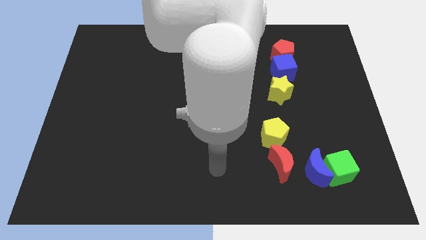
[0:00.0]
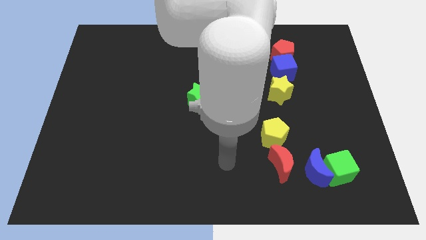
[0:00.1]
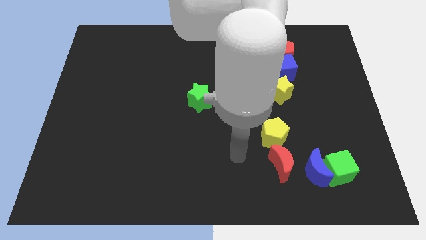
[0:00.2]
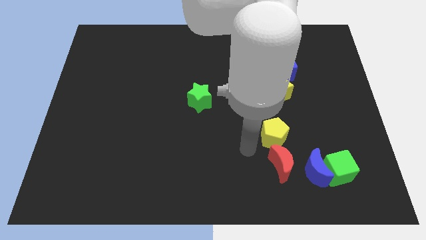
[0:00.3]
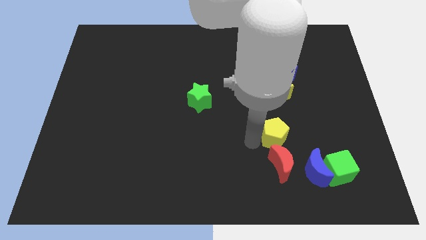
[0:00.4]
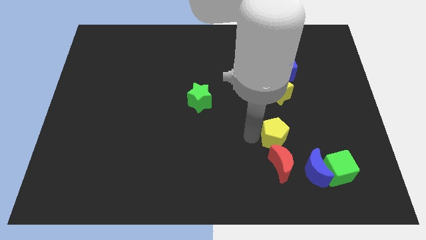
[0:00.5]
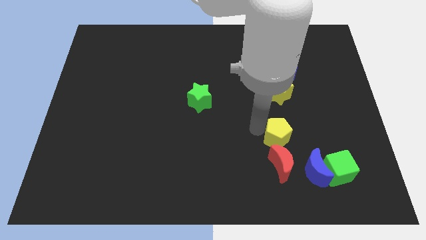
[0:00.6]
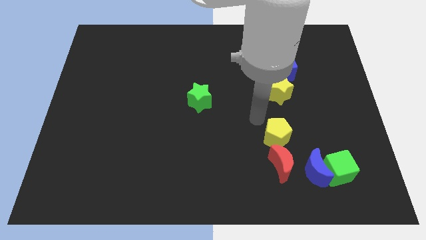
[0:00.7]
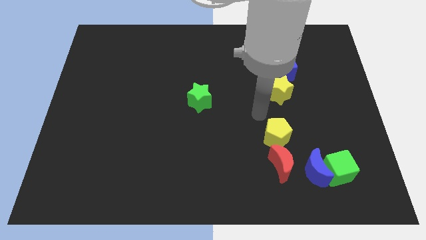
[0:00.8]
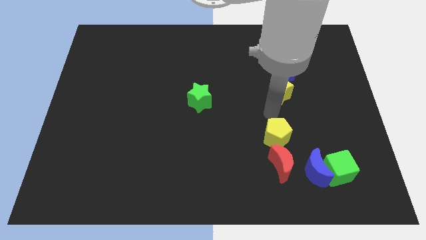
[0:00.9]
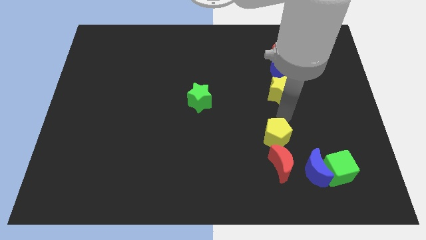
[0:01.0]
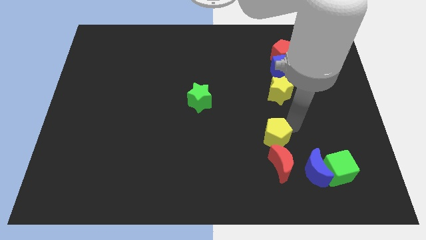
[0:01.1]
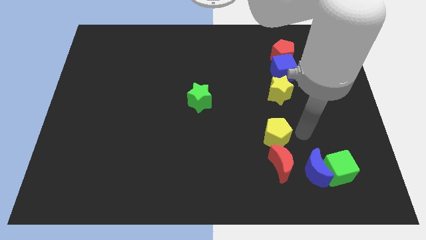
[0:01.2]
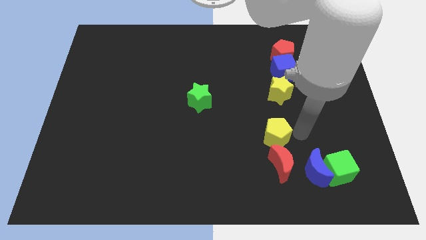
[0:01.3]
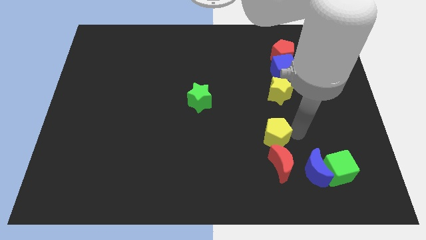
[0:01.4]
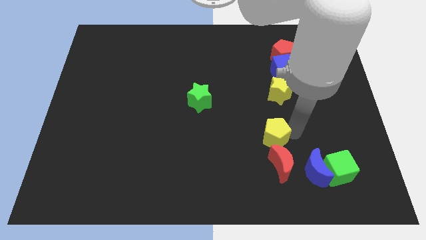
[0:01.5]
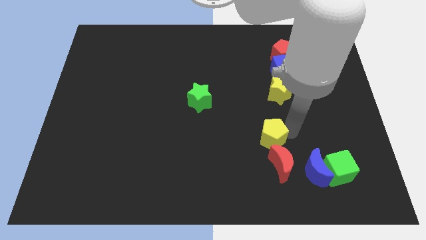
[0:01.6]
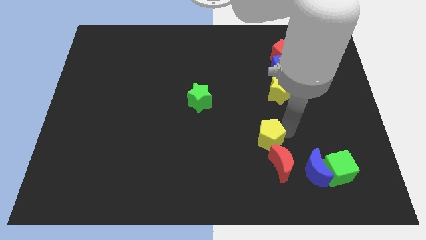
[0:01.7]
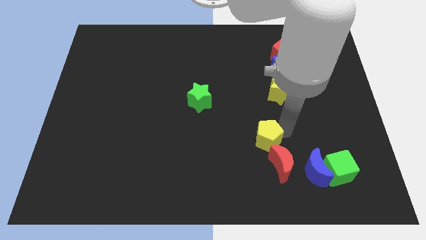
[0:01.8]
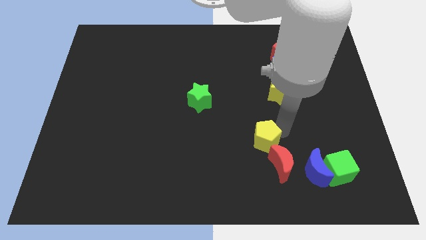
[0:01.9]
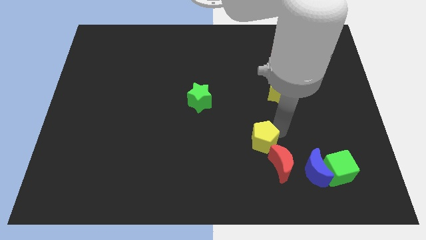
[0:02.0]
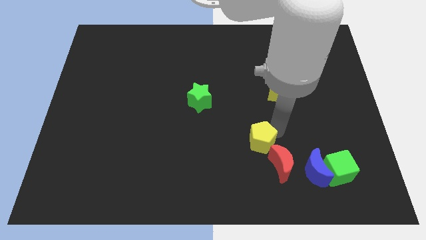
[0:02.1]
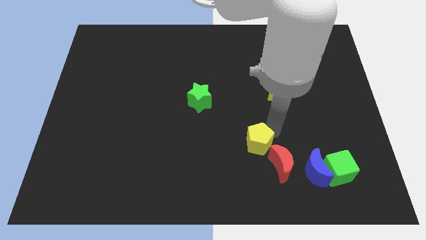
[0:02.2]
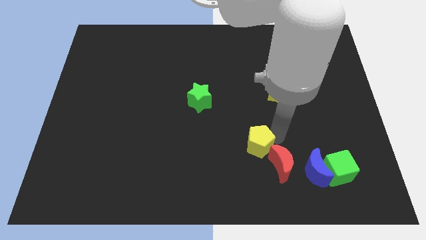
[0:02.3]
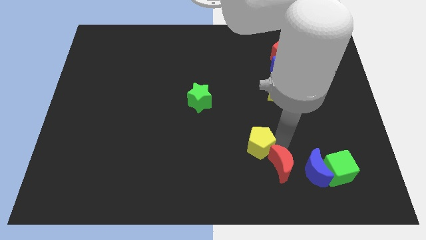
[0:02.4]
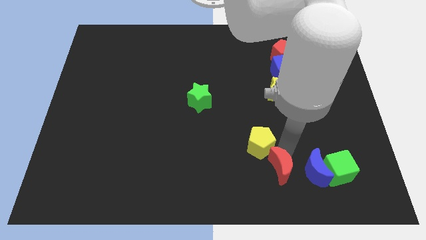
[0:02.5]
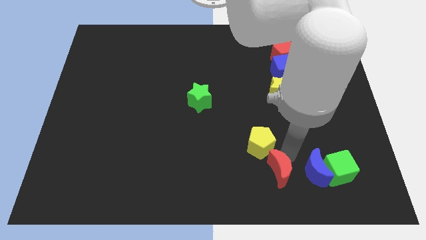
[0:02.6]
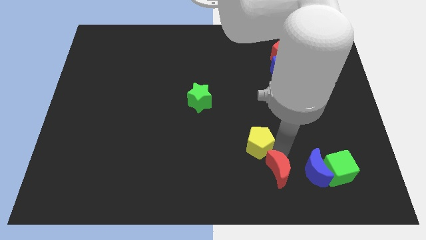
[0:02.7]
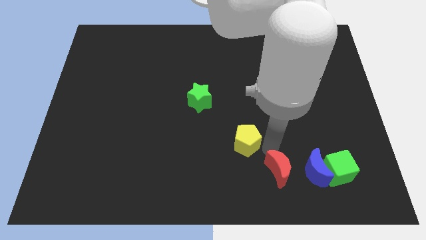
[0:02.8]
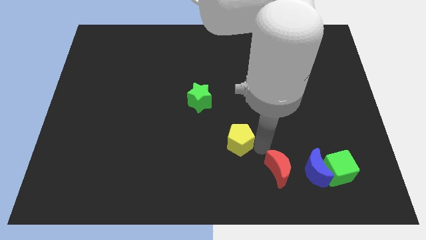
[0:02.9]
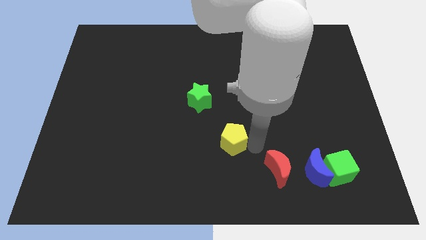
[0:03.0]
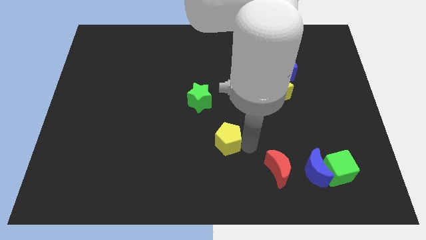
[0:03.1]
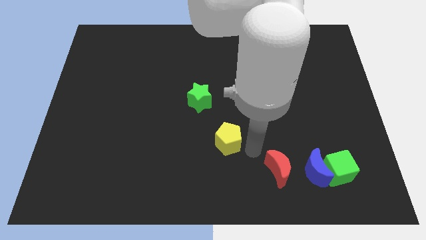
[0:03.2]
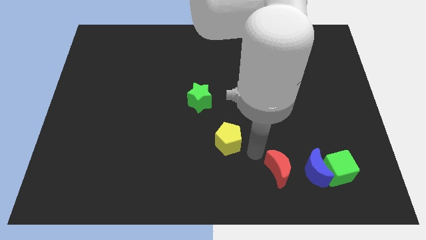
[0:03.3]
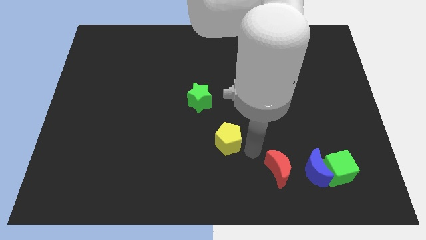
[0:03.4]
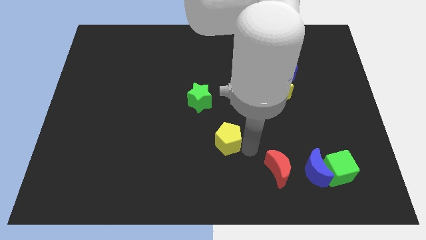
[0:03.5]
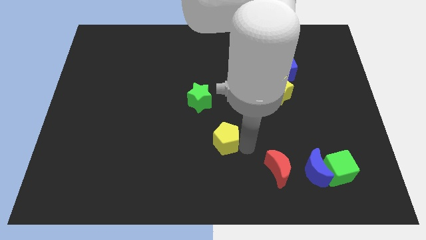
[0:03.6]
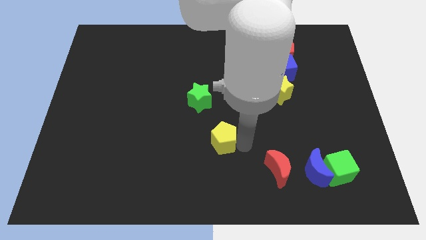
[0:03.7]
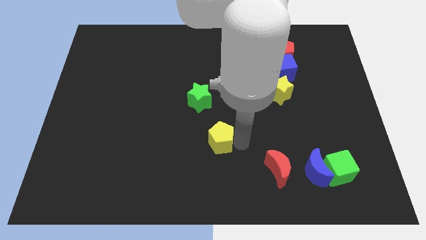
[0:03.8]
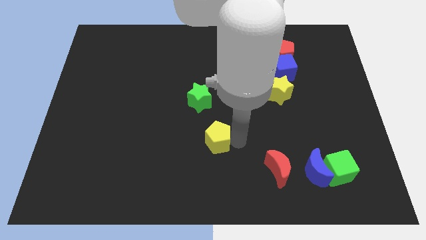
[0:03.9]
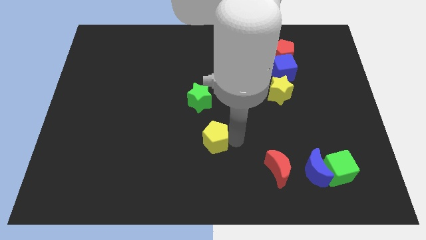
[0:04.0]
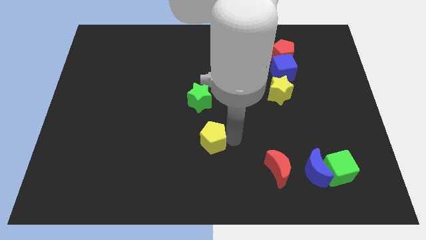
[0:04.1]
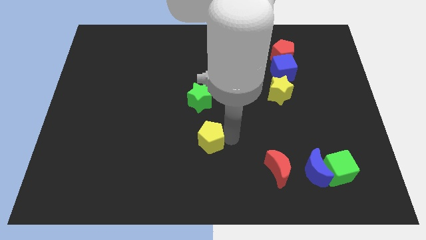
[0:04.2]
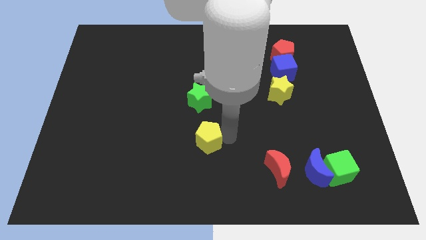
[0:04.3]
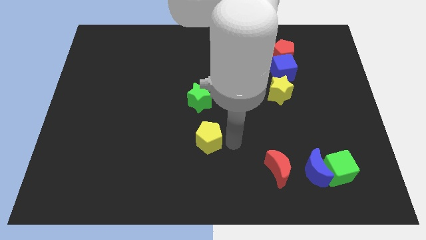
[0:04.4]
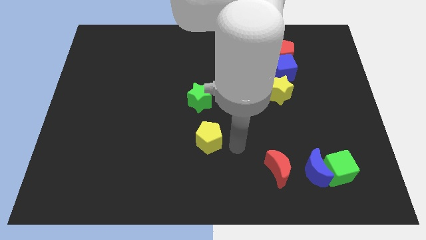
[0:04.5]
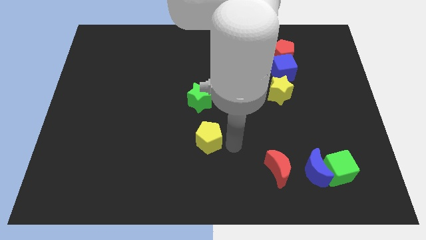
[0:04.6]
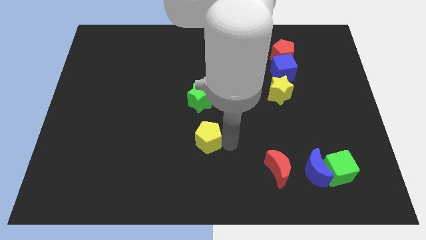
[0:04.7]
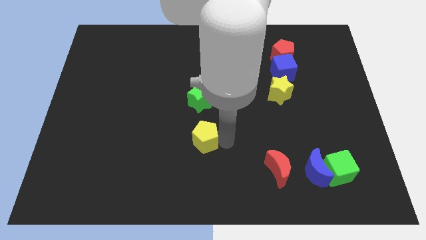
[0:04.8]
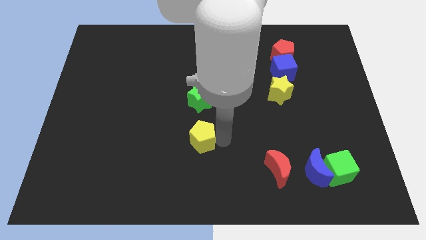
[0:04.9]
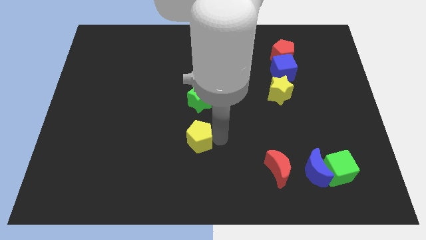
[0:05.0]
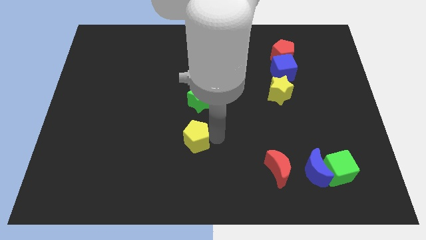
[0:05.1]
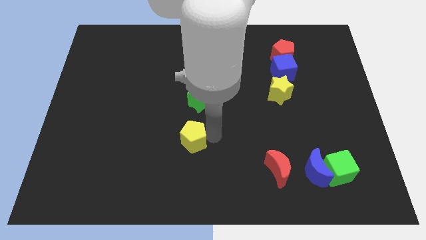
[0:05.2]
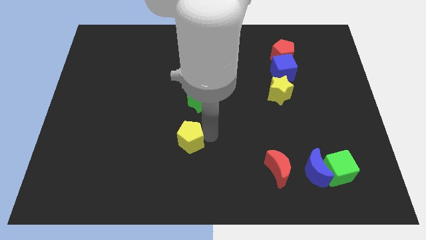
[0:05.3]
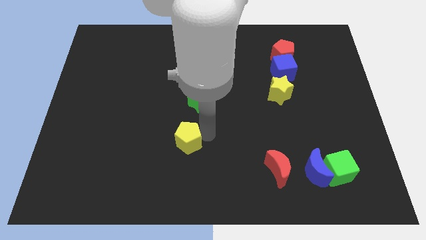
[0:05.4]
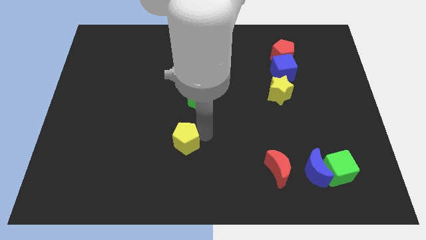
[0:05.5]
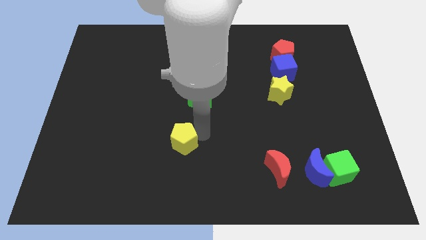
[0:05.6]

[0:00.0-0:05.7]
move the yellow pentagon to the left

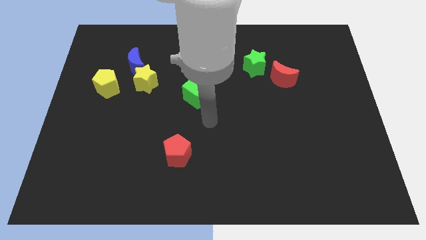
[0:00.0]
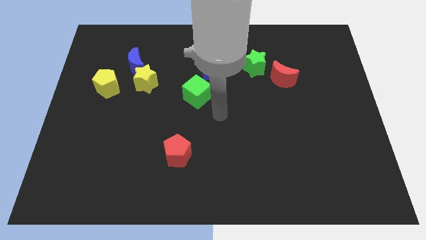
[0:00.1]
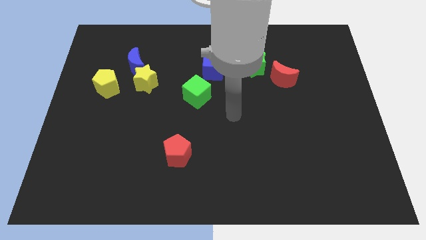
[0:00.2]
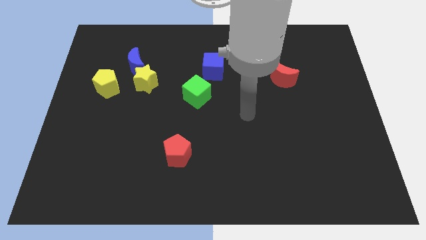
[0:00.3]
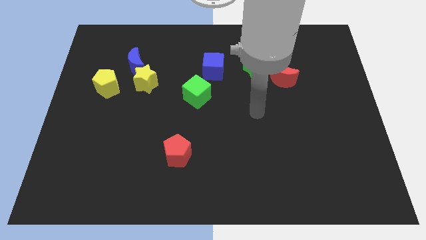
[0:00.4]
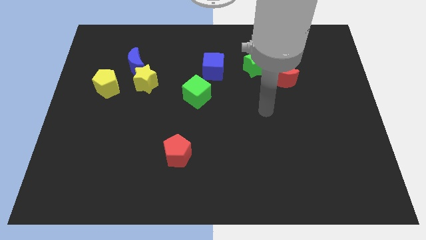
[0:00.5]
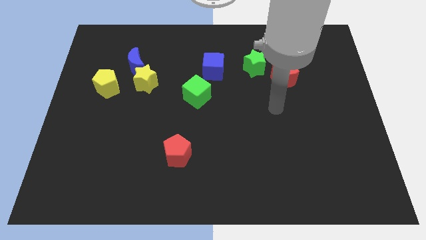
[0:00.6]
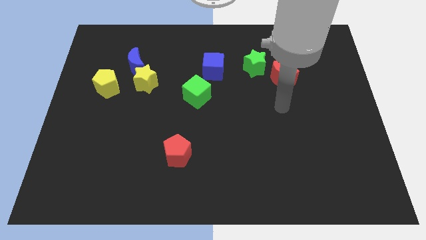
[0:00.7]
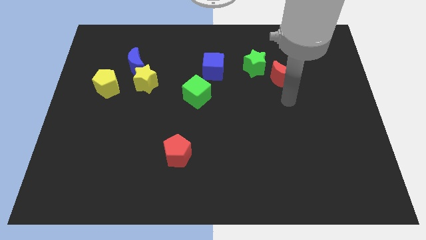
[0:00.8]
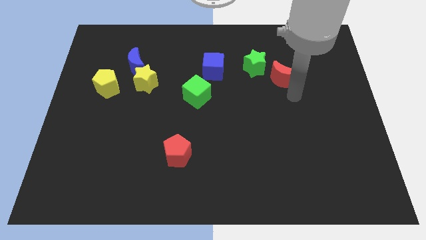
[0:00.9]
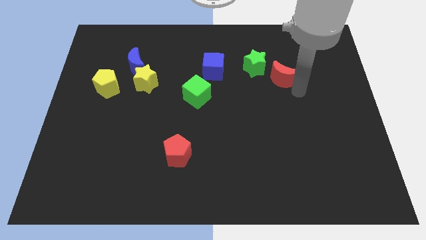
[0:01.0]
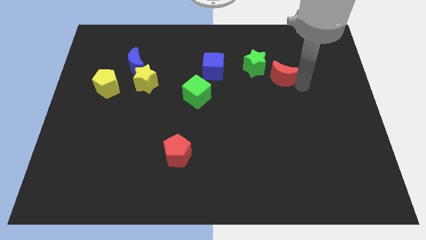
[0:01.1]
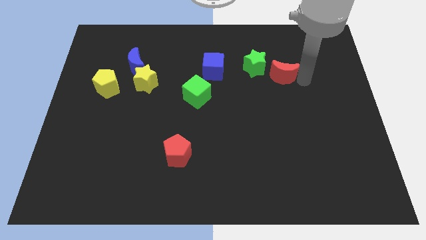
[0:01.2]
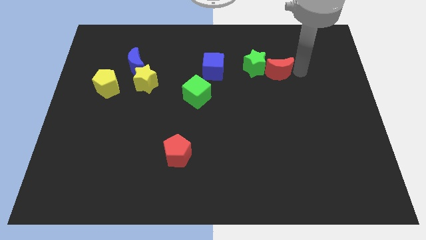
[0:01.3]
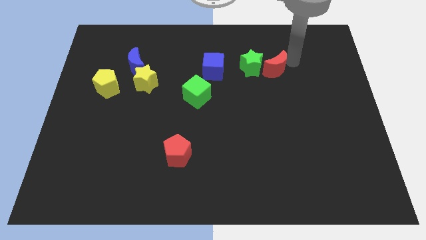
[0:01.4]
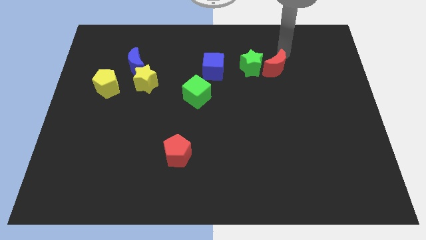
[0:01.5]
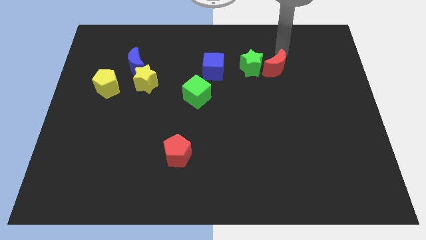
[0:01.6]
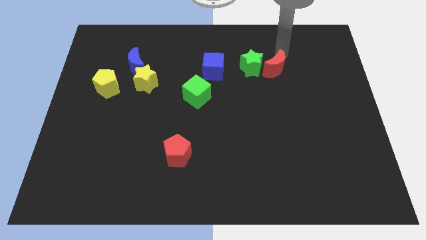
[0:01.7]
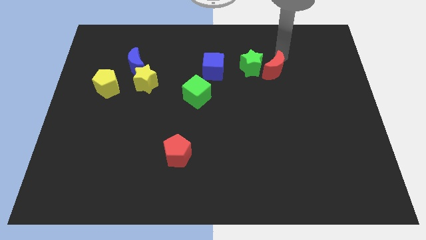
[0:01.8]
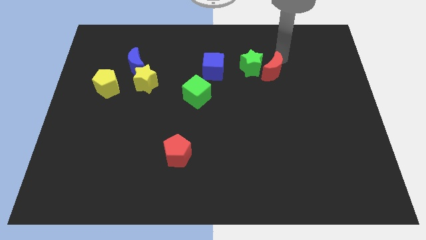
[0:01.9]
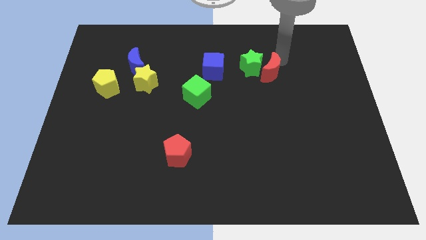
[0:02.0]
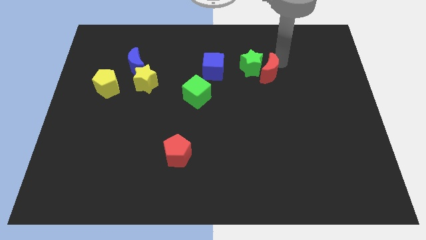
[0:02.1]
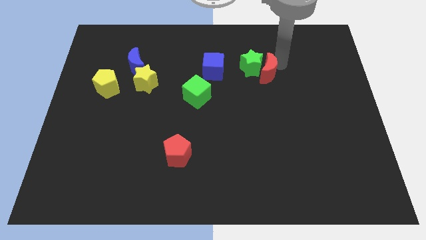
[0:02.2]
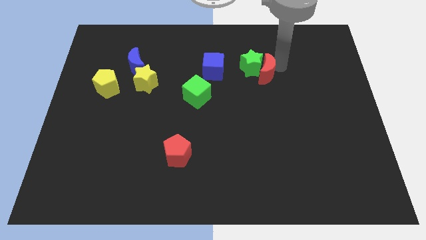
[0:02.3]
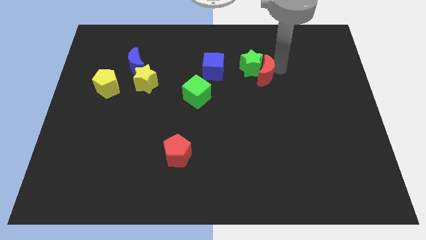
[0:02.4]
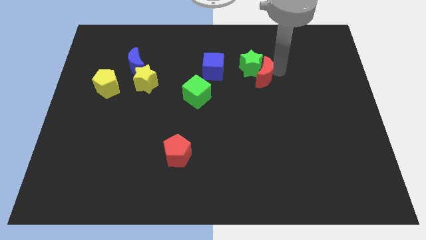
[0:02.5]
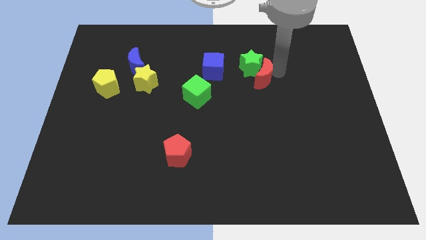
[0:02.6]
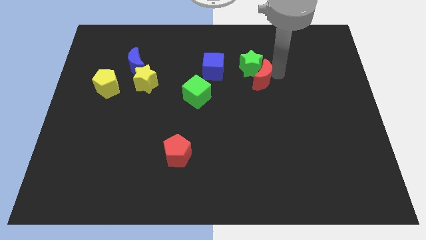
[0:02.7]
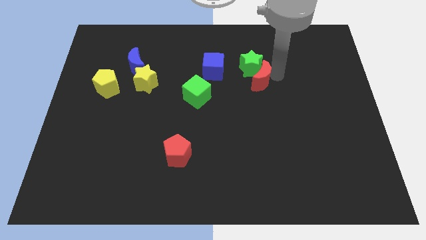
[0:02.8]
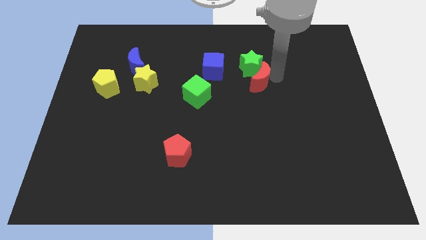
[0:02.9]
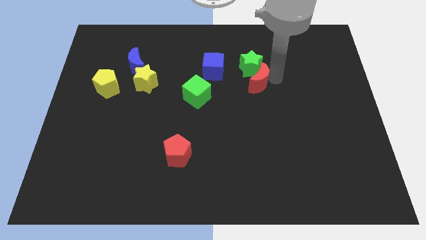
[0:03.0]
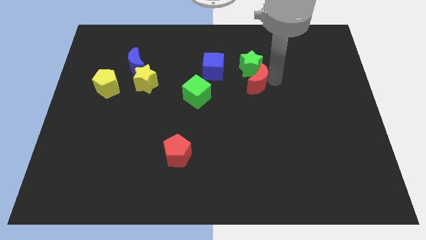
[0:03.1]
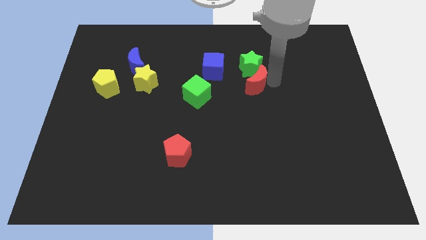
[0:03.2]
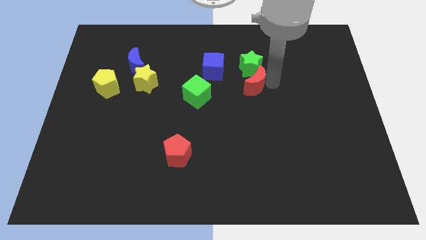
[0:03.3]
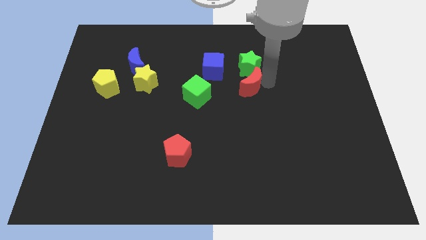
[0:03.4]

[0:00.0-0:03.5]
push the red moon somewhat diagonally downwards and left
